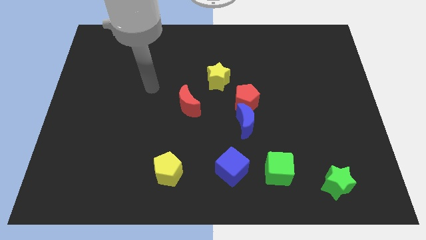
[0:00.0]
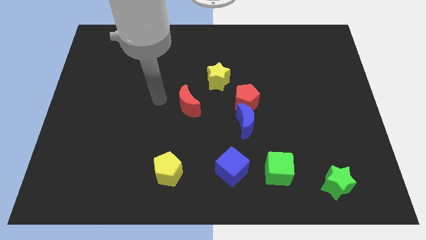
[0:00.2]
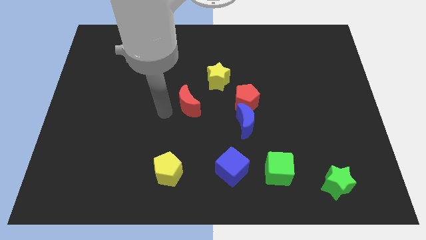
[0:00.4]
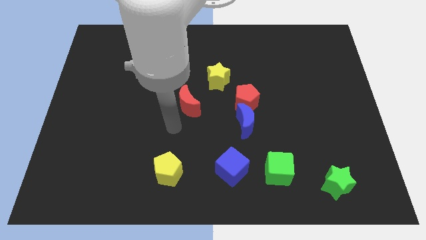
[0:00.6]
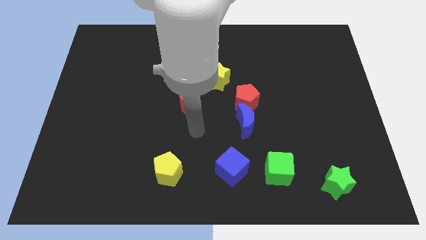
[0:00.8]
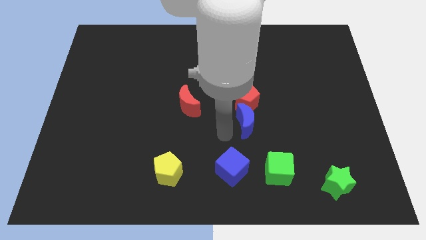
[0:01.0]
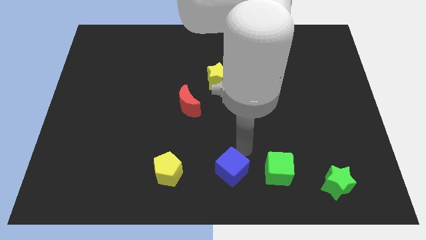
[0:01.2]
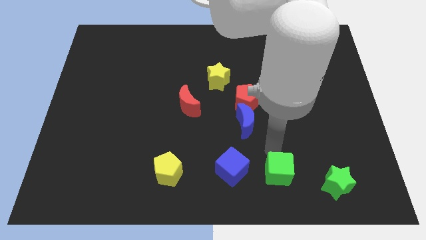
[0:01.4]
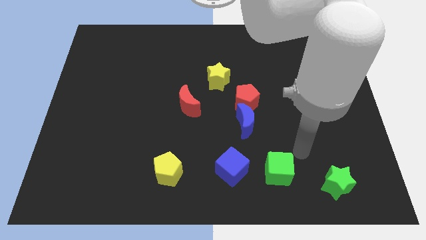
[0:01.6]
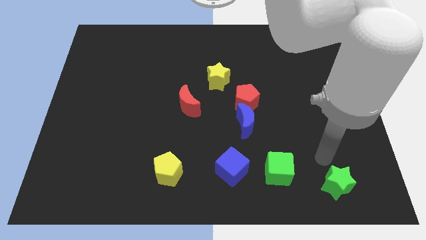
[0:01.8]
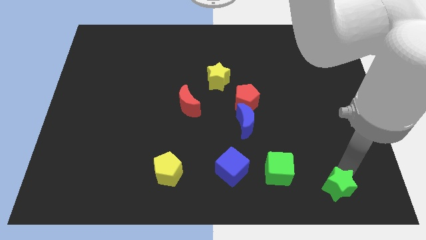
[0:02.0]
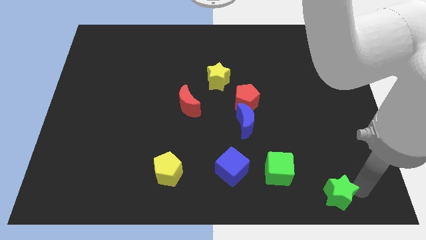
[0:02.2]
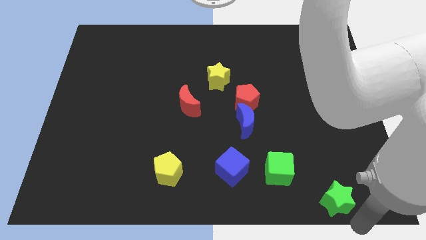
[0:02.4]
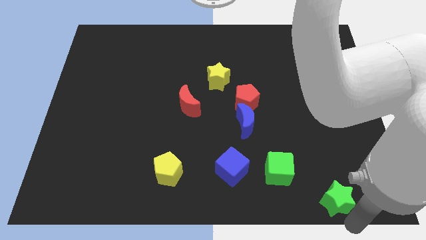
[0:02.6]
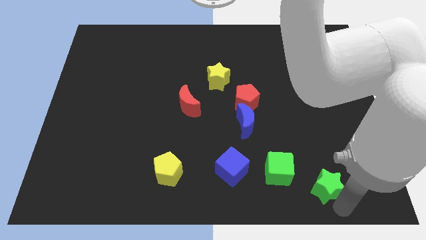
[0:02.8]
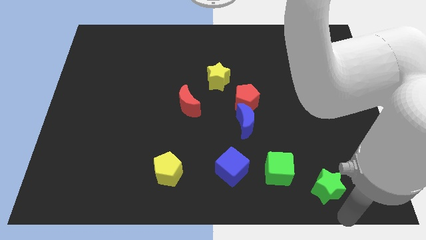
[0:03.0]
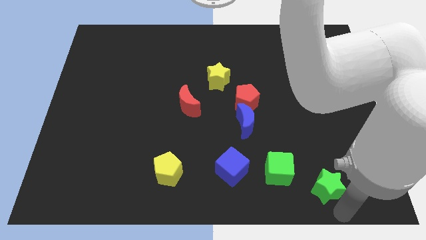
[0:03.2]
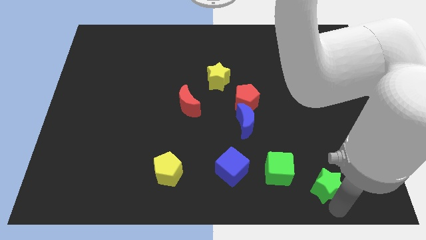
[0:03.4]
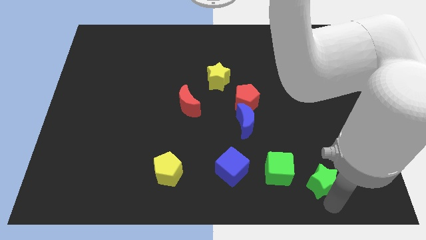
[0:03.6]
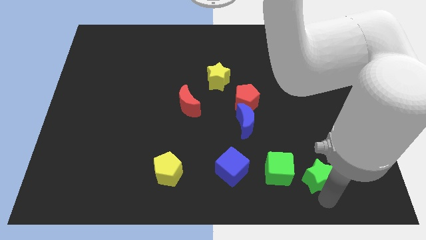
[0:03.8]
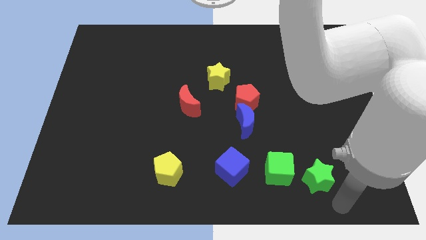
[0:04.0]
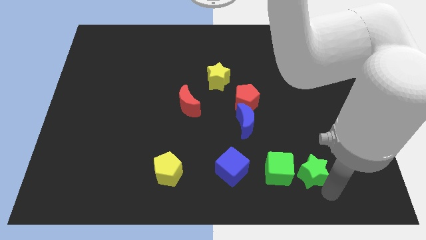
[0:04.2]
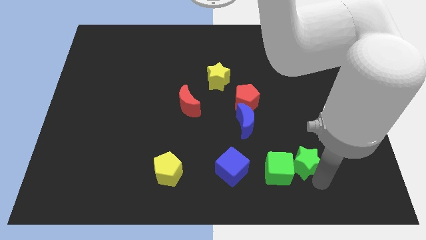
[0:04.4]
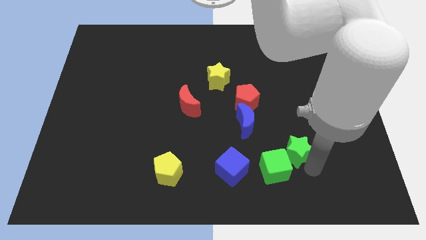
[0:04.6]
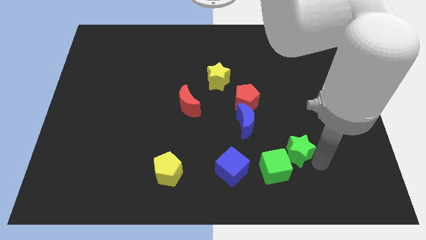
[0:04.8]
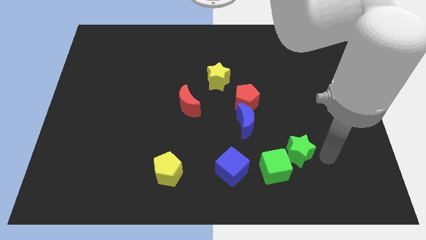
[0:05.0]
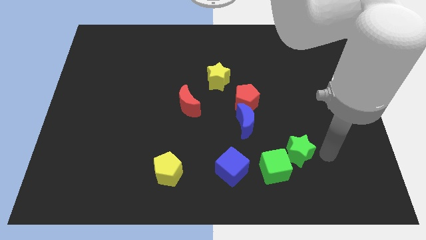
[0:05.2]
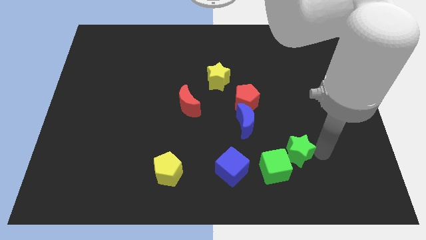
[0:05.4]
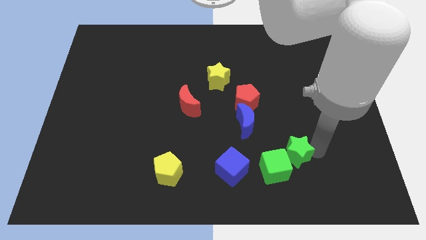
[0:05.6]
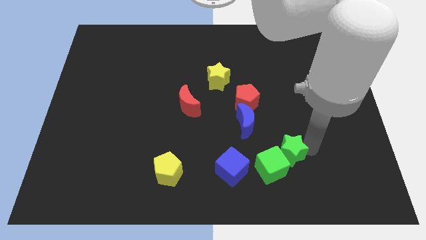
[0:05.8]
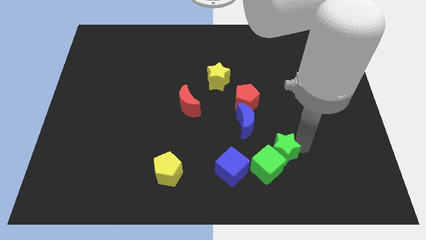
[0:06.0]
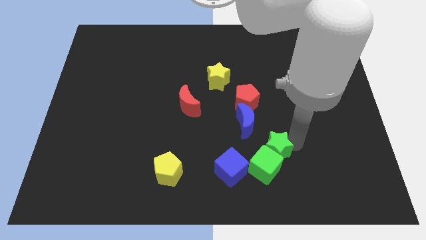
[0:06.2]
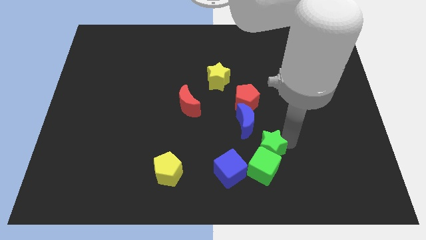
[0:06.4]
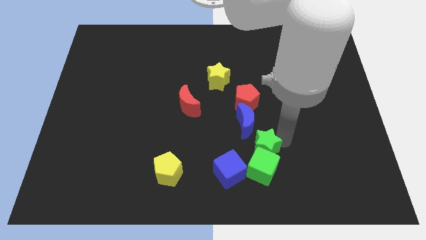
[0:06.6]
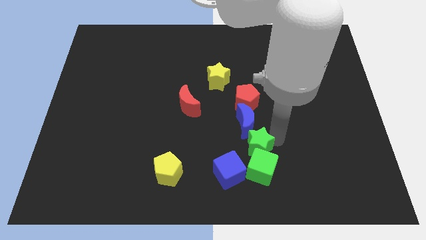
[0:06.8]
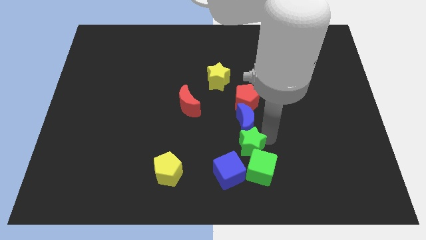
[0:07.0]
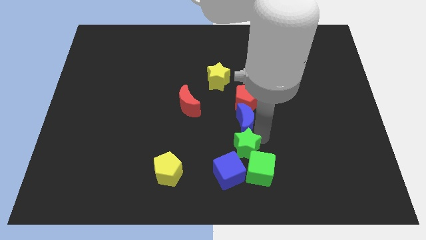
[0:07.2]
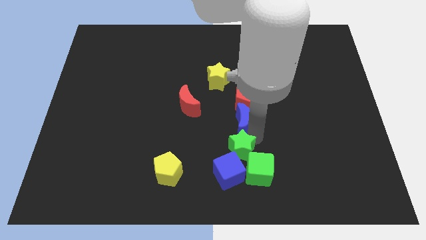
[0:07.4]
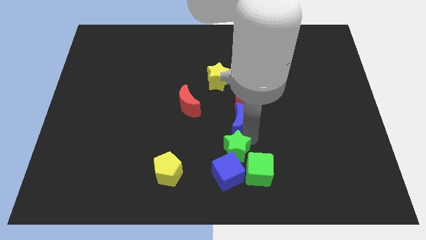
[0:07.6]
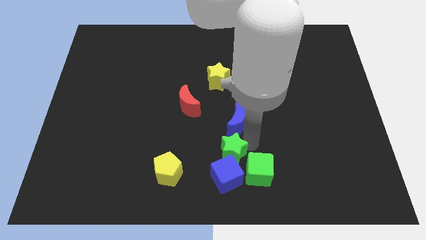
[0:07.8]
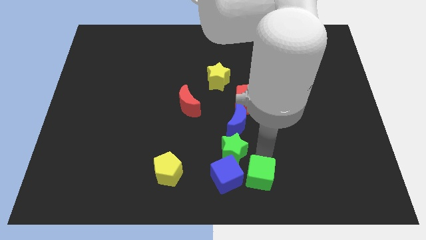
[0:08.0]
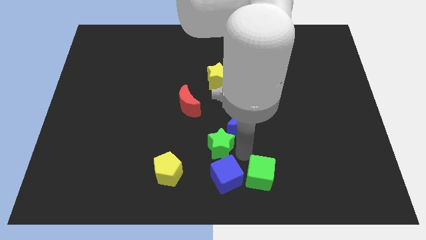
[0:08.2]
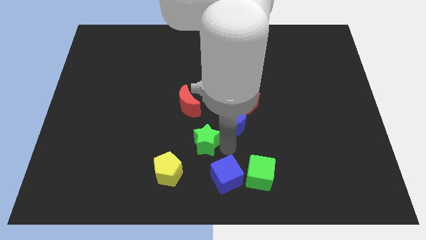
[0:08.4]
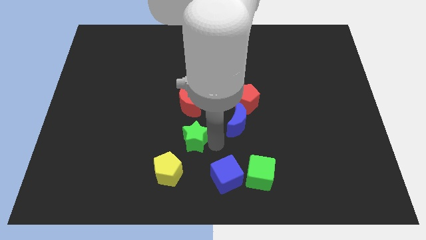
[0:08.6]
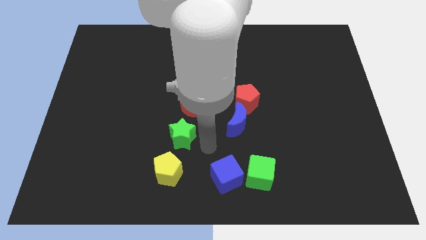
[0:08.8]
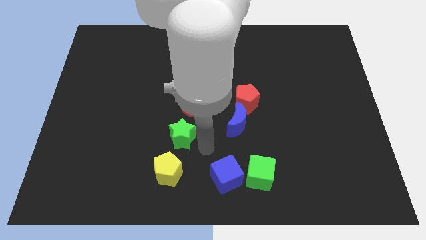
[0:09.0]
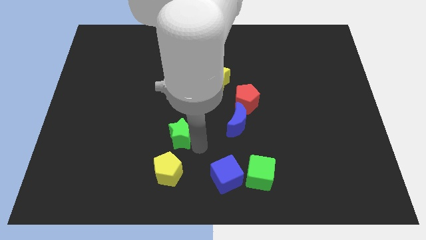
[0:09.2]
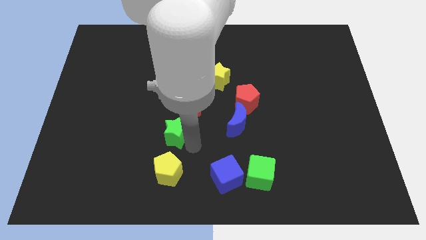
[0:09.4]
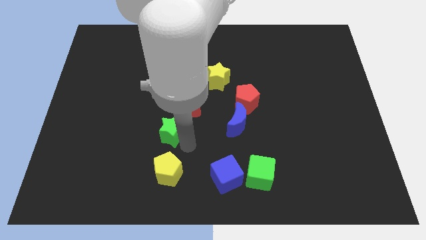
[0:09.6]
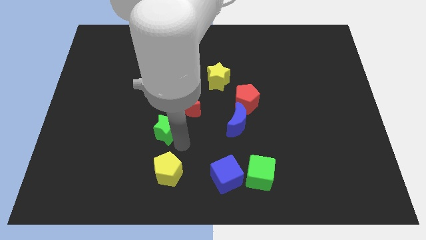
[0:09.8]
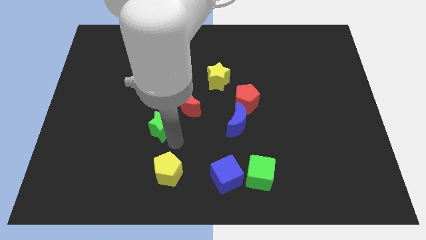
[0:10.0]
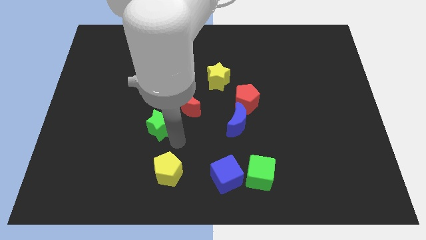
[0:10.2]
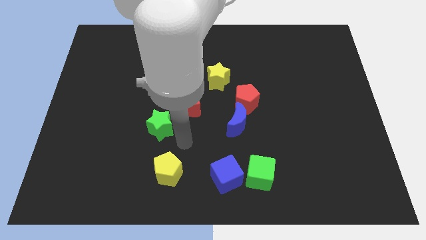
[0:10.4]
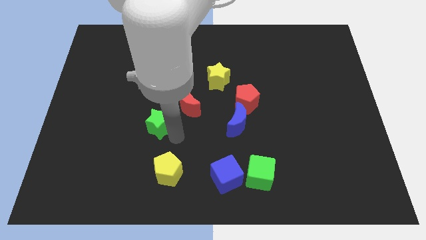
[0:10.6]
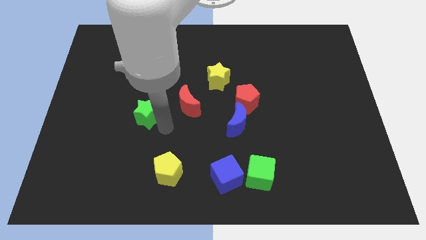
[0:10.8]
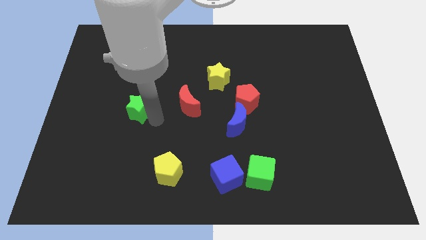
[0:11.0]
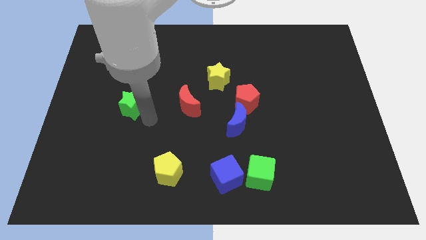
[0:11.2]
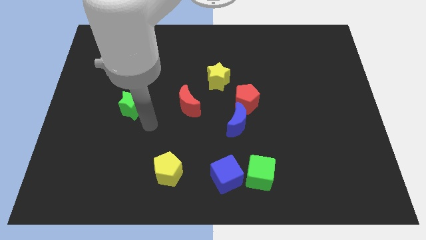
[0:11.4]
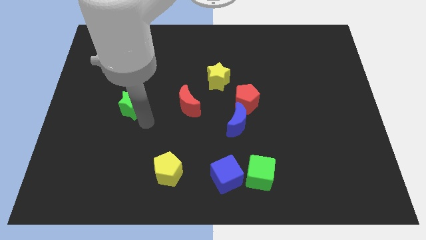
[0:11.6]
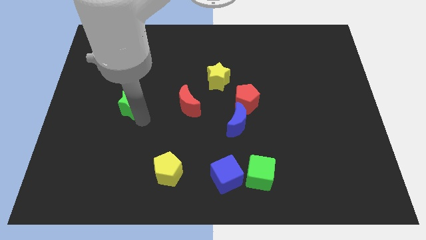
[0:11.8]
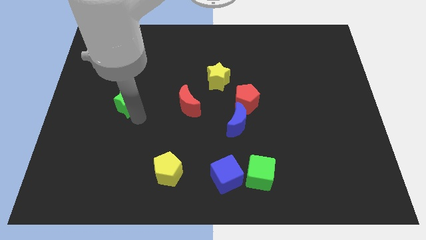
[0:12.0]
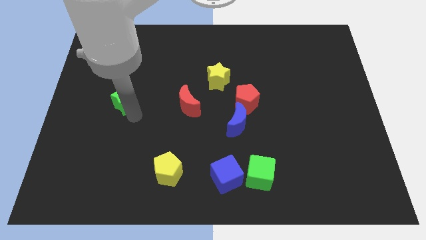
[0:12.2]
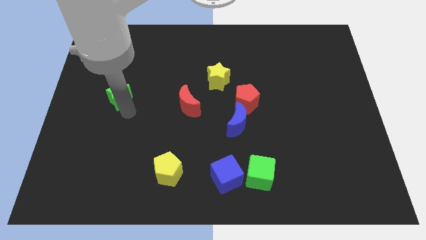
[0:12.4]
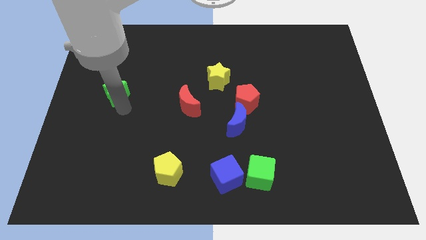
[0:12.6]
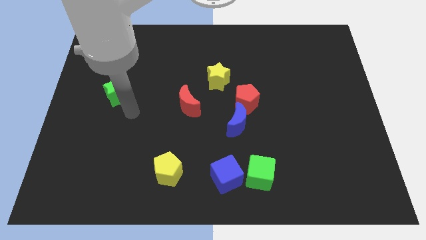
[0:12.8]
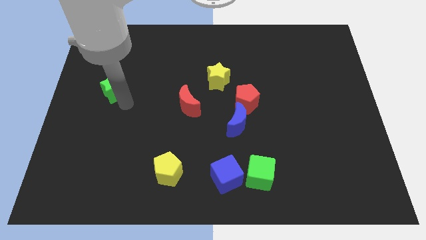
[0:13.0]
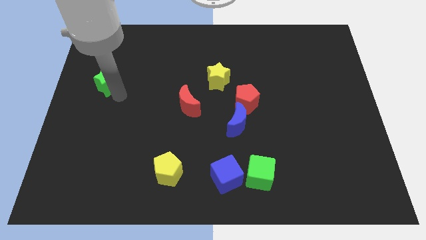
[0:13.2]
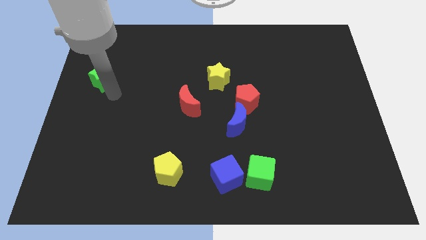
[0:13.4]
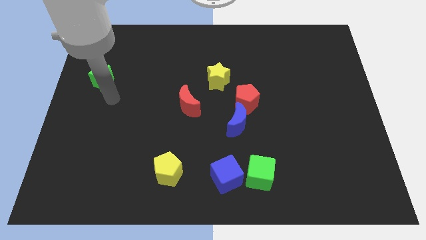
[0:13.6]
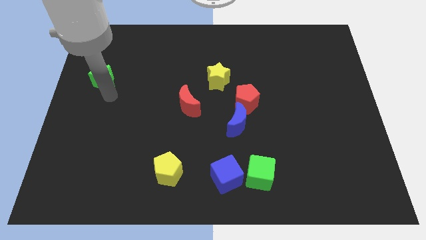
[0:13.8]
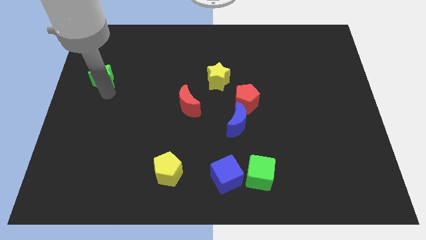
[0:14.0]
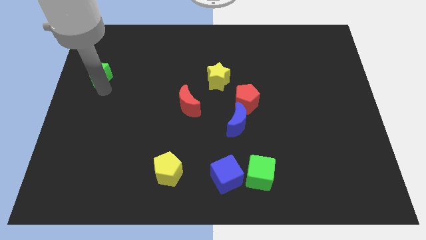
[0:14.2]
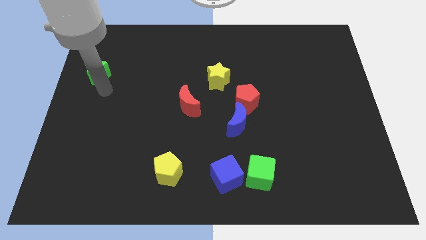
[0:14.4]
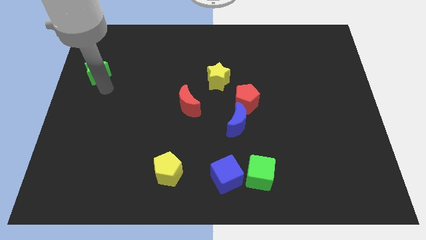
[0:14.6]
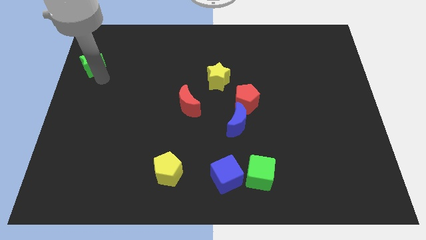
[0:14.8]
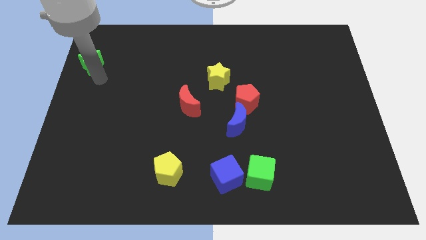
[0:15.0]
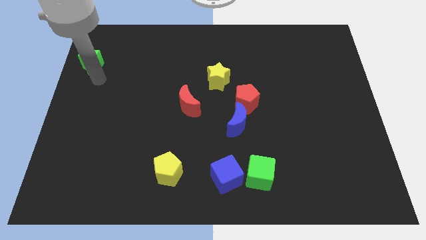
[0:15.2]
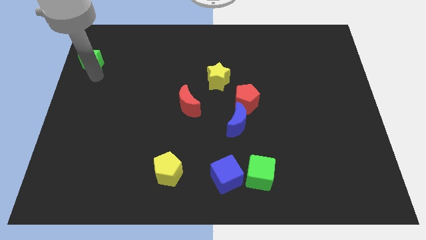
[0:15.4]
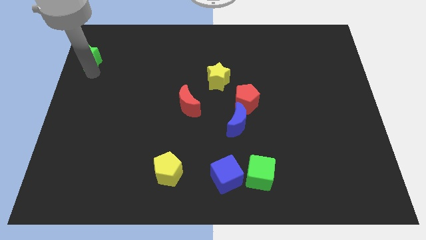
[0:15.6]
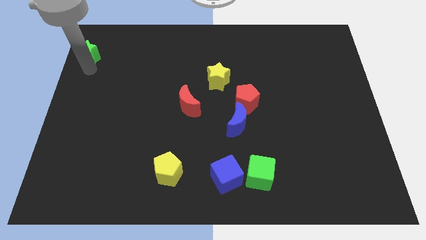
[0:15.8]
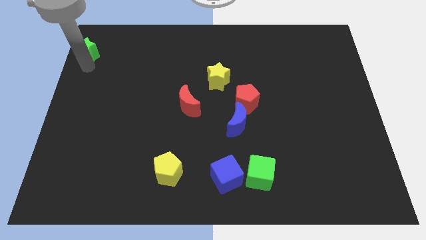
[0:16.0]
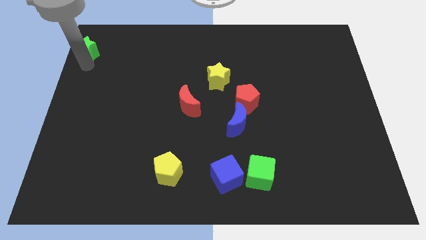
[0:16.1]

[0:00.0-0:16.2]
put the green star to the top left of the board
